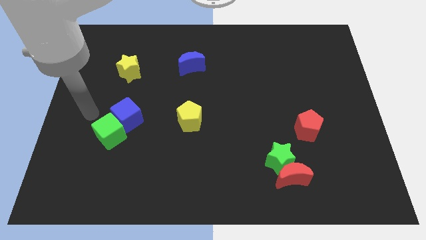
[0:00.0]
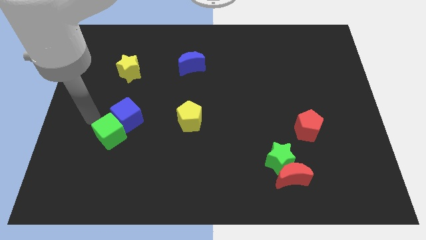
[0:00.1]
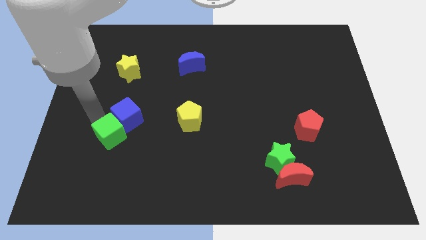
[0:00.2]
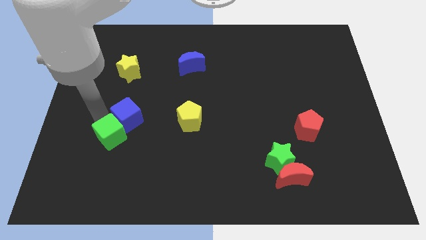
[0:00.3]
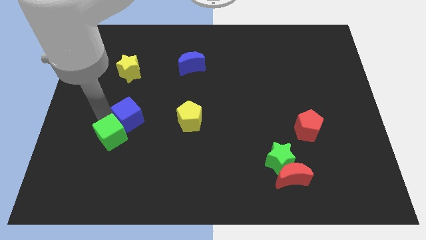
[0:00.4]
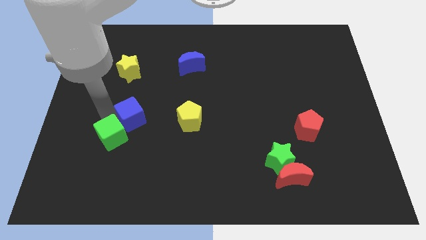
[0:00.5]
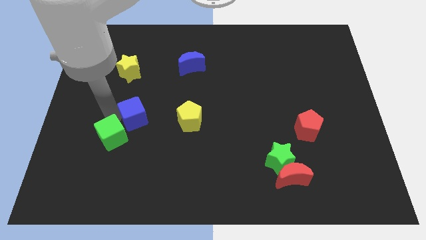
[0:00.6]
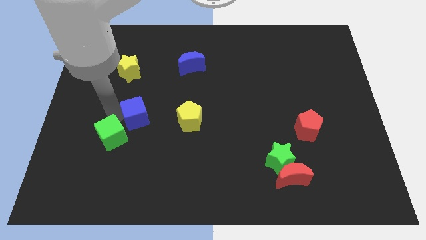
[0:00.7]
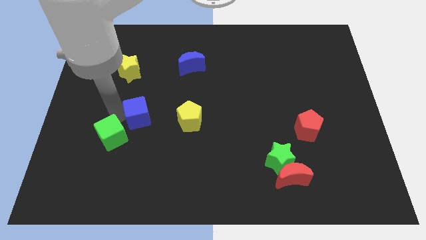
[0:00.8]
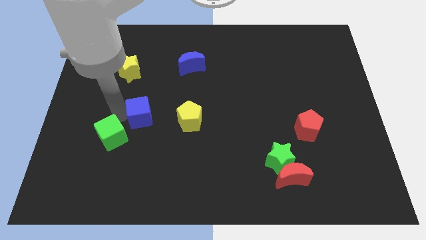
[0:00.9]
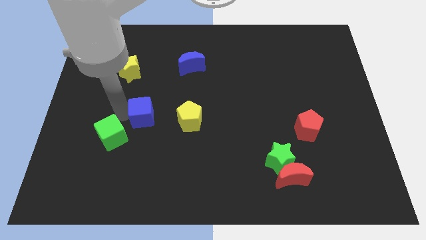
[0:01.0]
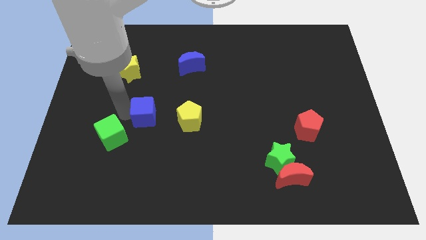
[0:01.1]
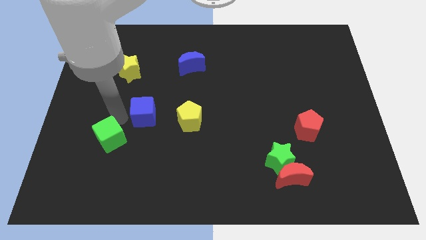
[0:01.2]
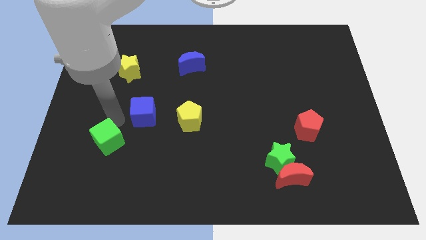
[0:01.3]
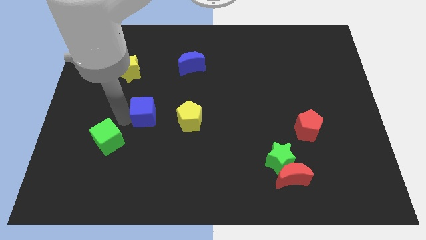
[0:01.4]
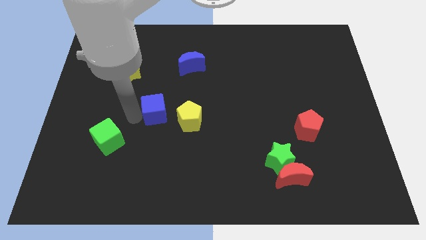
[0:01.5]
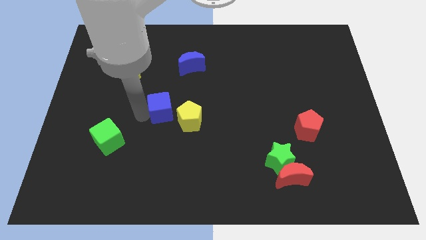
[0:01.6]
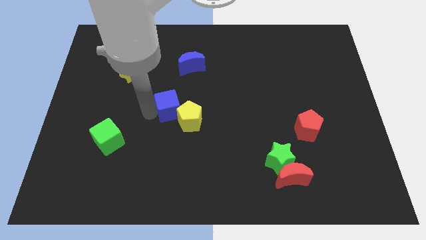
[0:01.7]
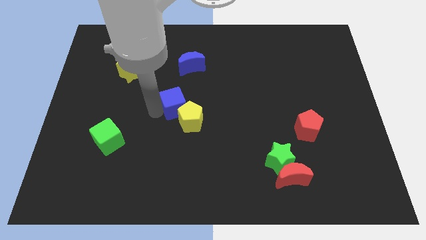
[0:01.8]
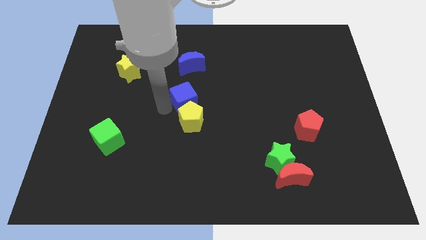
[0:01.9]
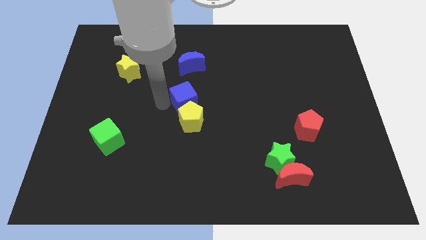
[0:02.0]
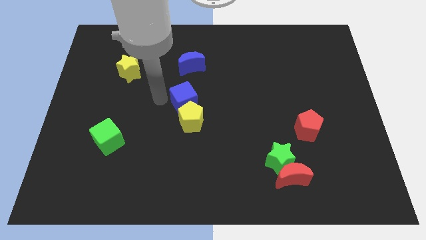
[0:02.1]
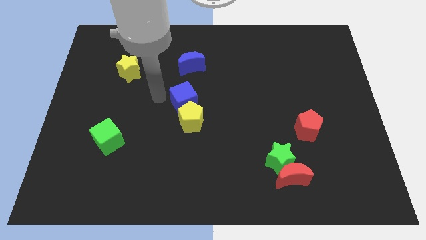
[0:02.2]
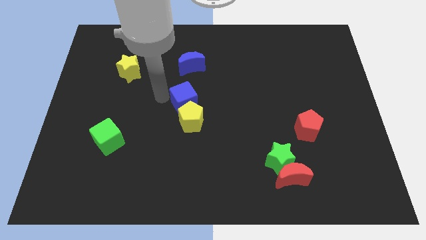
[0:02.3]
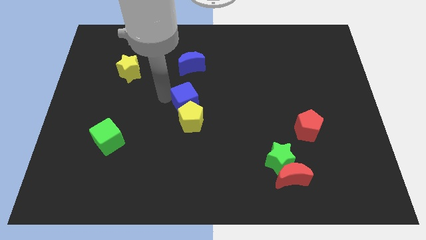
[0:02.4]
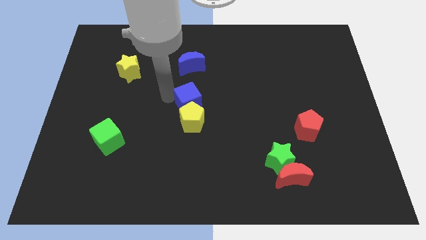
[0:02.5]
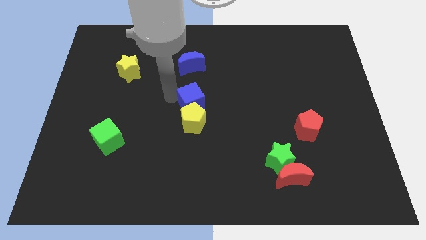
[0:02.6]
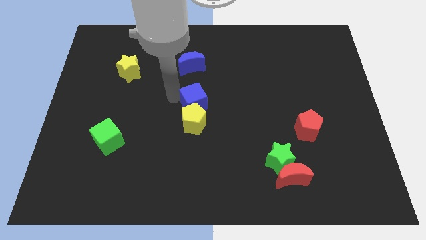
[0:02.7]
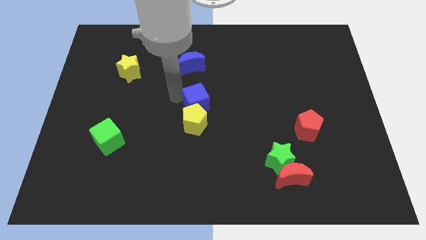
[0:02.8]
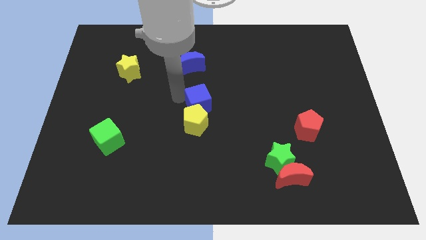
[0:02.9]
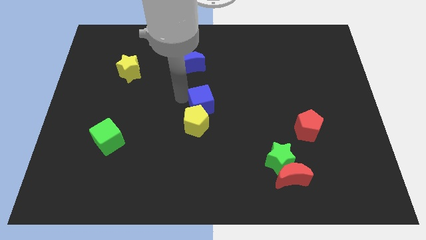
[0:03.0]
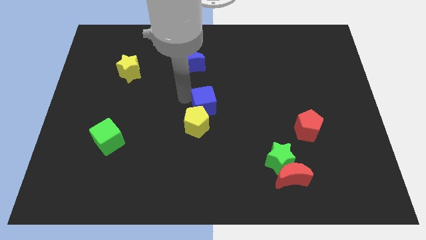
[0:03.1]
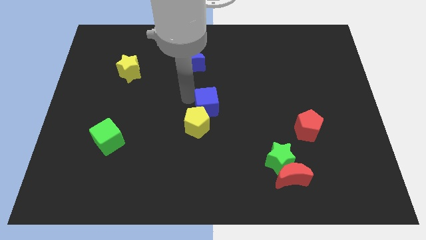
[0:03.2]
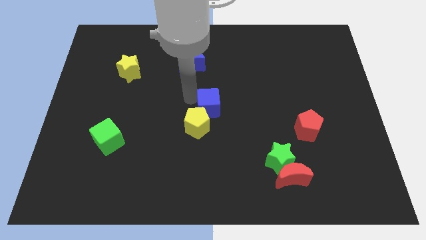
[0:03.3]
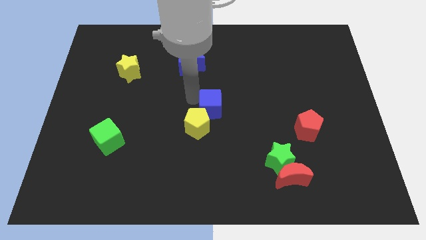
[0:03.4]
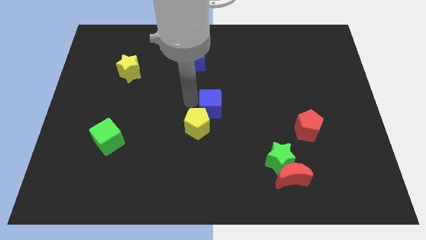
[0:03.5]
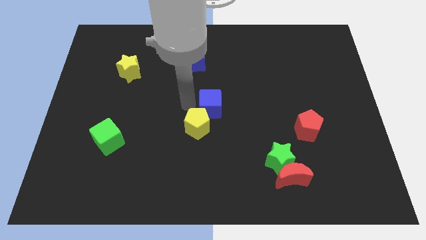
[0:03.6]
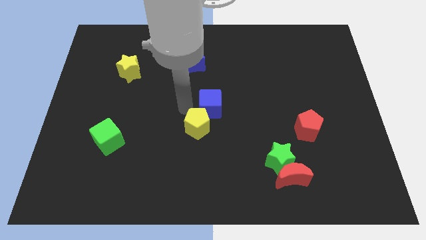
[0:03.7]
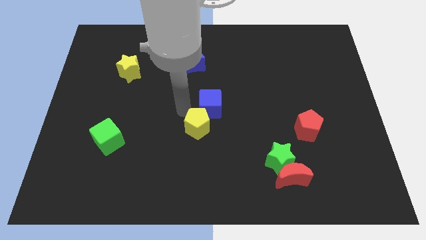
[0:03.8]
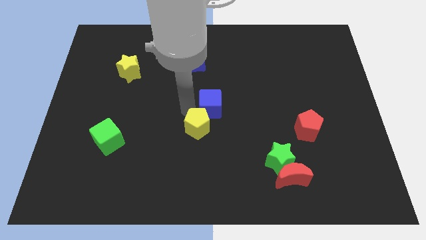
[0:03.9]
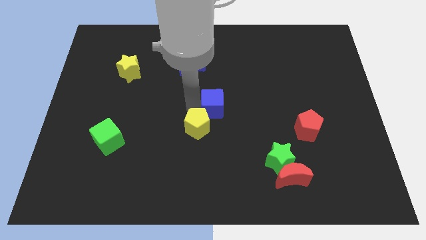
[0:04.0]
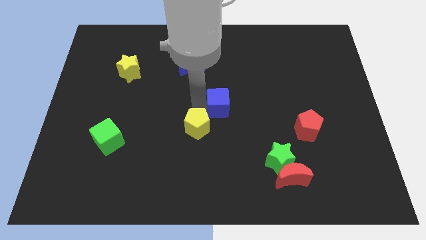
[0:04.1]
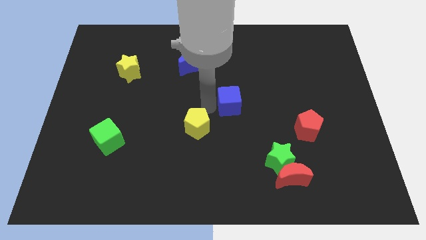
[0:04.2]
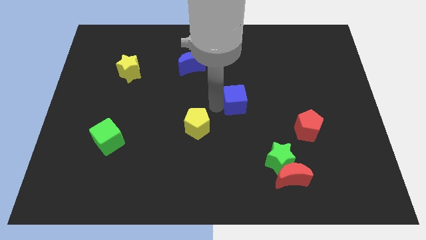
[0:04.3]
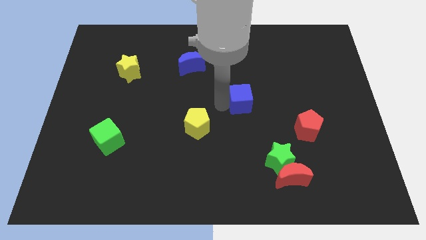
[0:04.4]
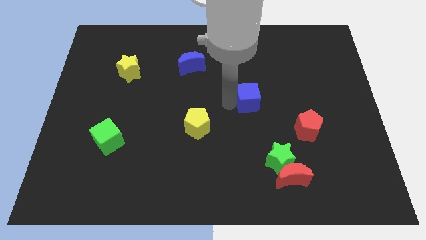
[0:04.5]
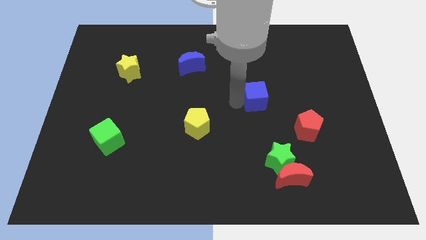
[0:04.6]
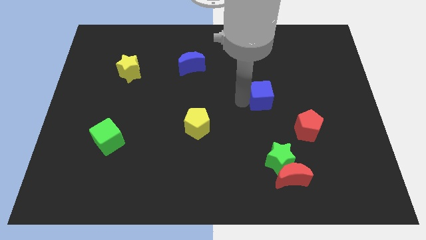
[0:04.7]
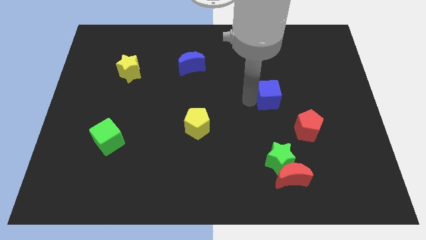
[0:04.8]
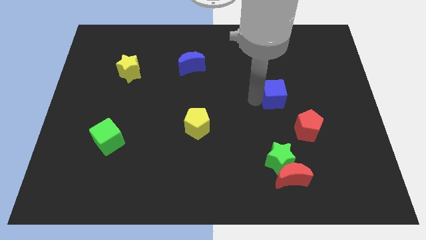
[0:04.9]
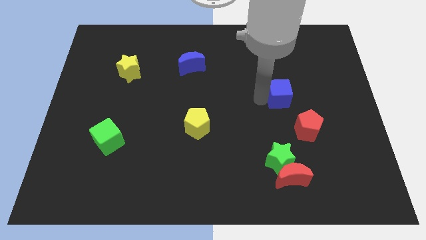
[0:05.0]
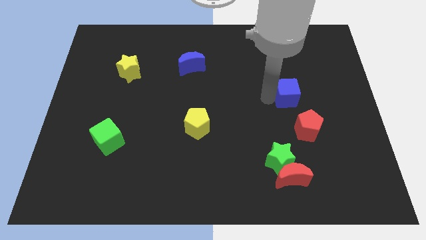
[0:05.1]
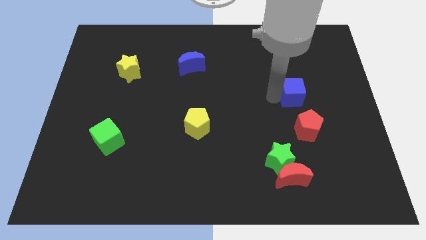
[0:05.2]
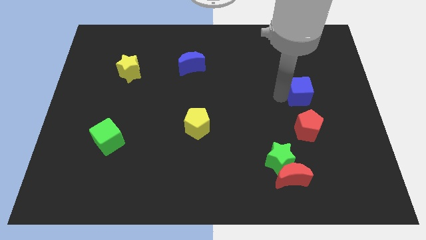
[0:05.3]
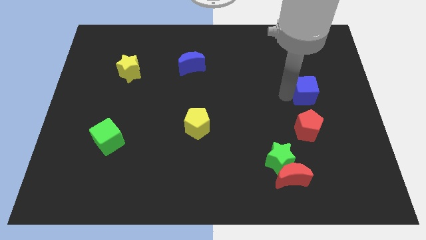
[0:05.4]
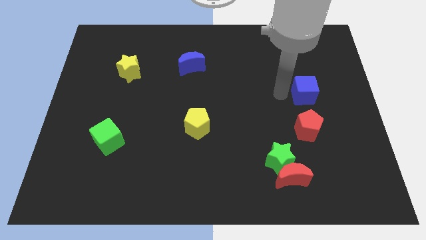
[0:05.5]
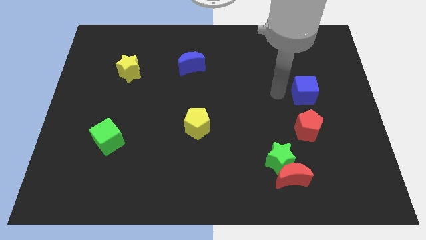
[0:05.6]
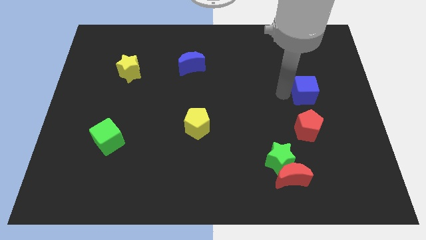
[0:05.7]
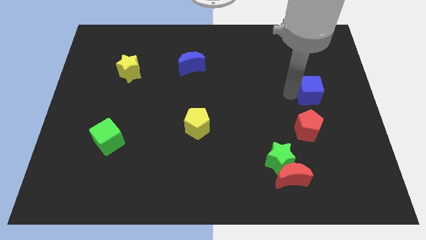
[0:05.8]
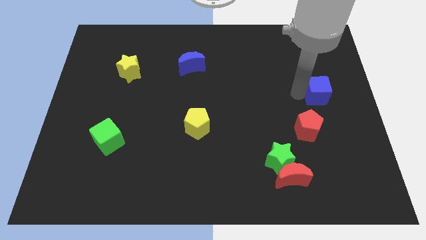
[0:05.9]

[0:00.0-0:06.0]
put the blue cube to the right side

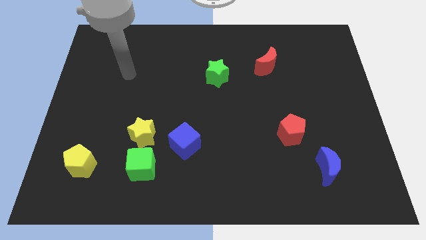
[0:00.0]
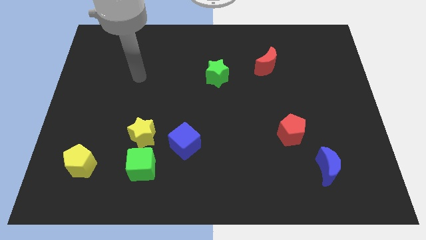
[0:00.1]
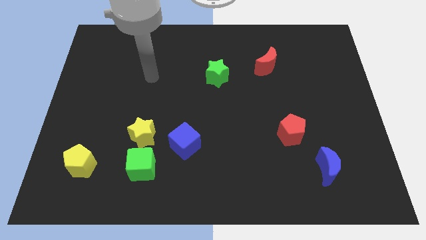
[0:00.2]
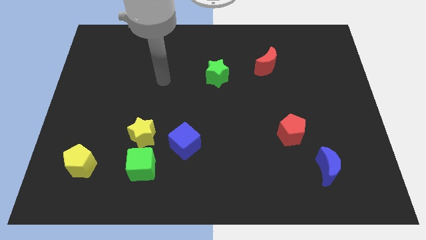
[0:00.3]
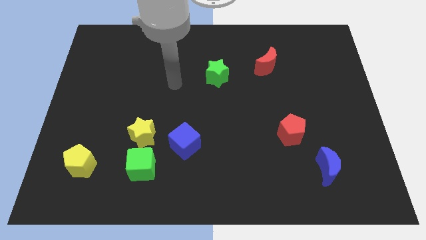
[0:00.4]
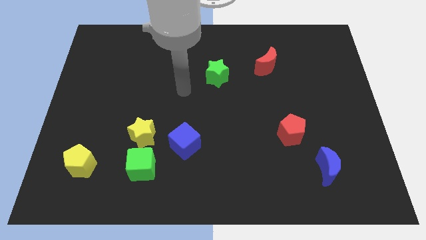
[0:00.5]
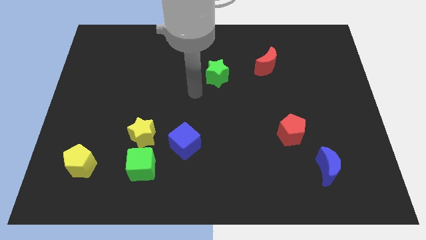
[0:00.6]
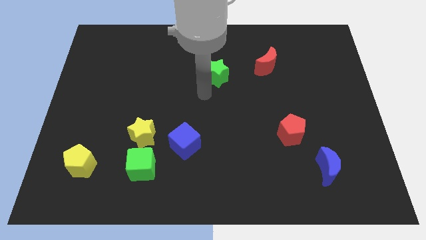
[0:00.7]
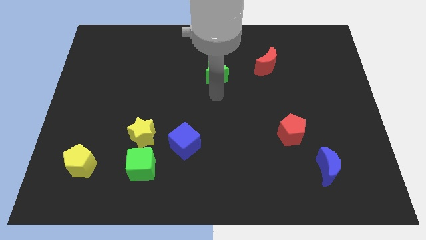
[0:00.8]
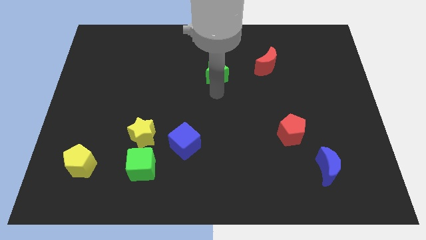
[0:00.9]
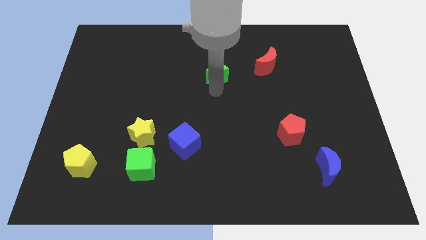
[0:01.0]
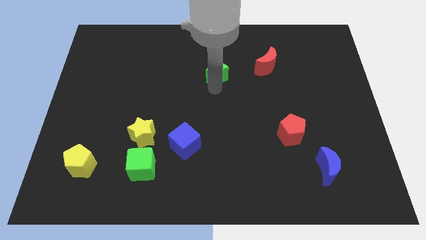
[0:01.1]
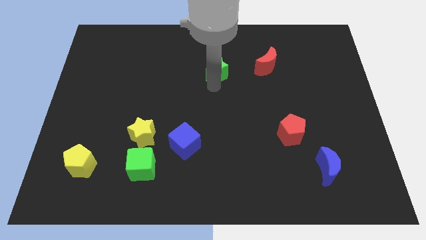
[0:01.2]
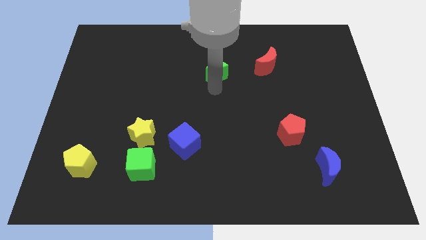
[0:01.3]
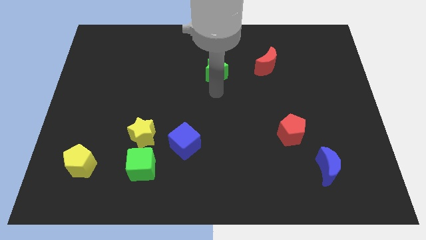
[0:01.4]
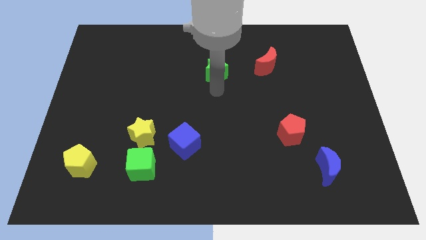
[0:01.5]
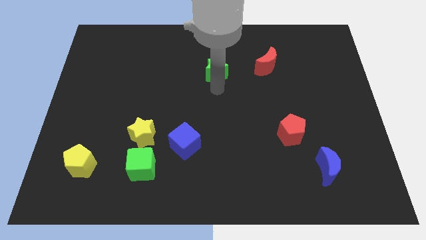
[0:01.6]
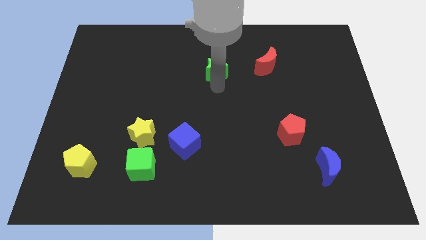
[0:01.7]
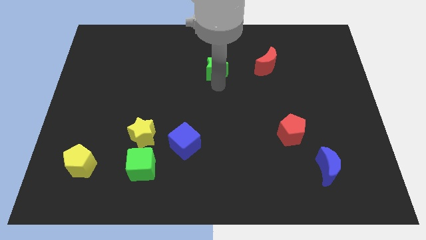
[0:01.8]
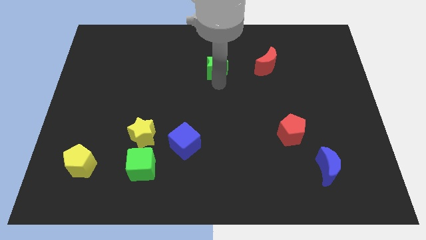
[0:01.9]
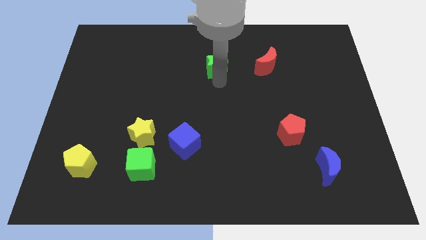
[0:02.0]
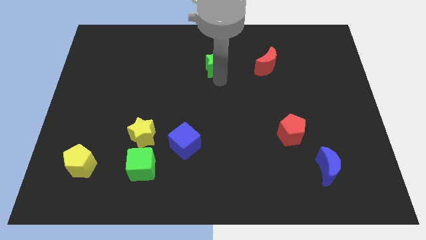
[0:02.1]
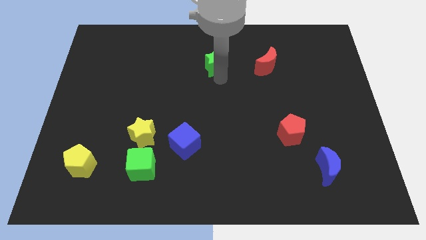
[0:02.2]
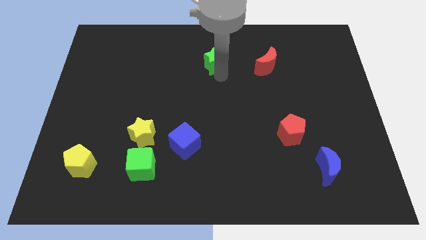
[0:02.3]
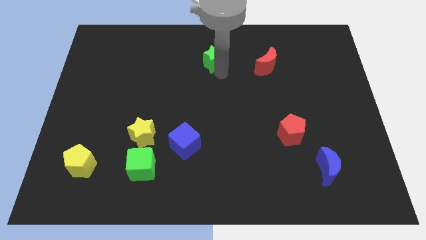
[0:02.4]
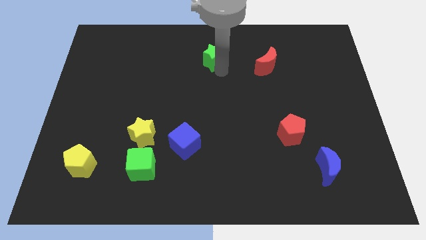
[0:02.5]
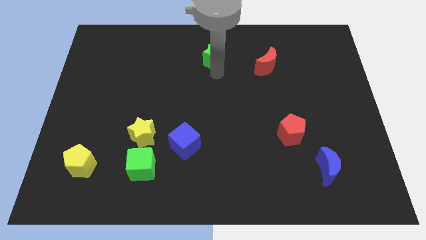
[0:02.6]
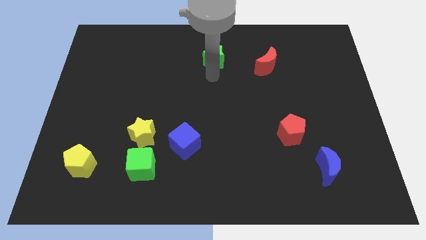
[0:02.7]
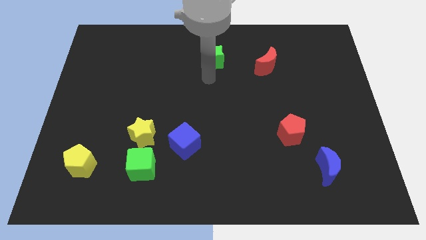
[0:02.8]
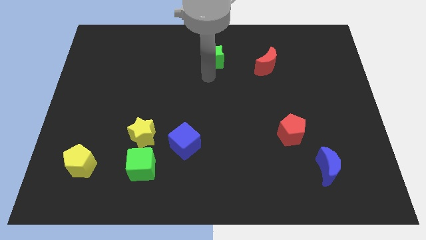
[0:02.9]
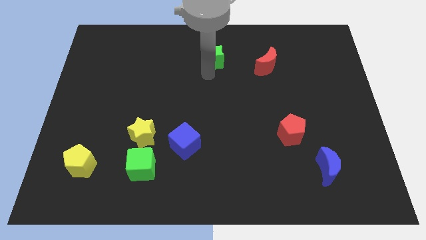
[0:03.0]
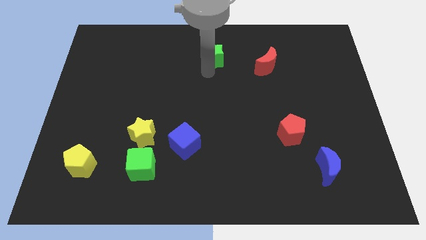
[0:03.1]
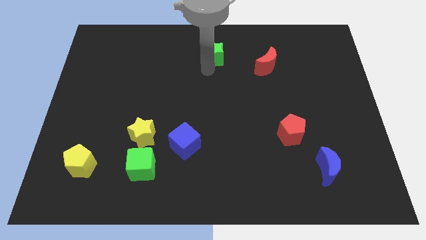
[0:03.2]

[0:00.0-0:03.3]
slide the green star to the top
